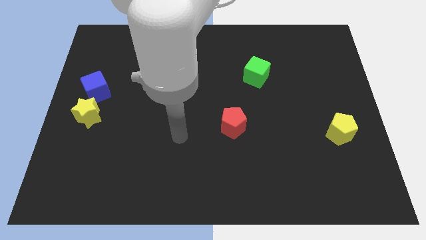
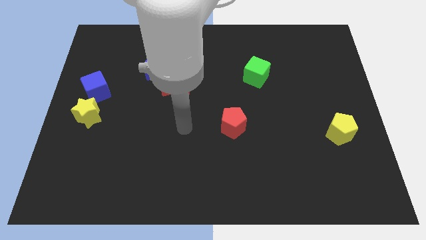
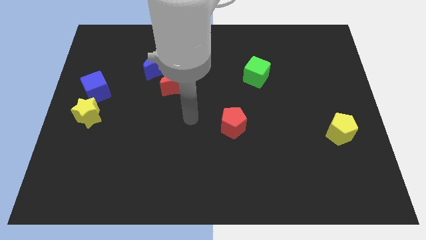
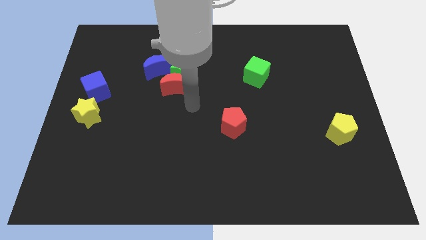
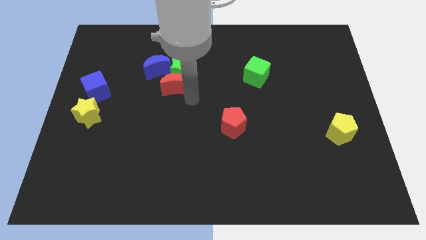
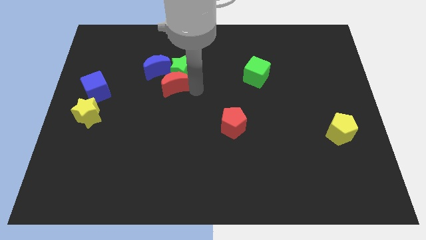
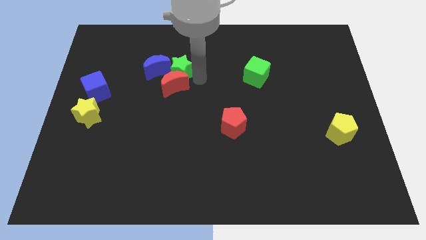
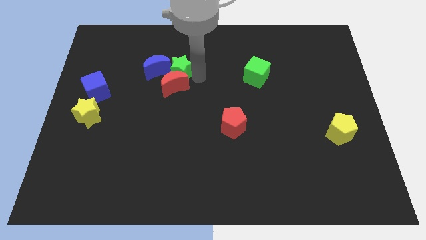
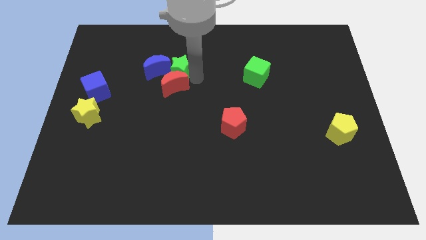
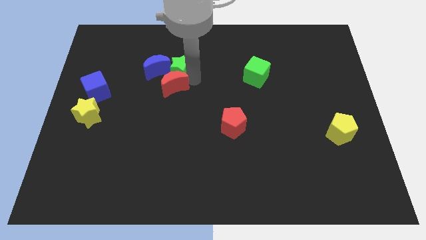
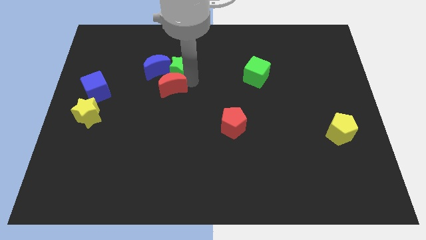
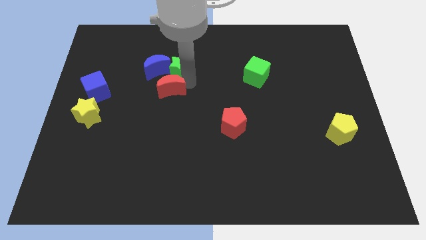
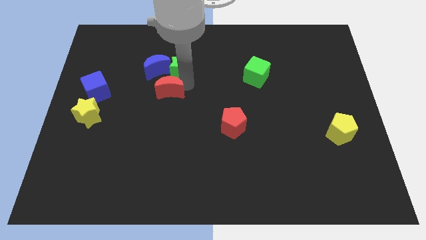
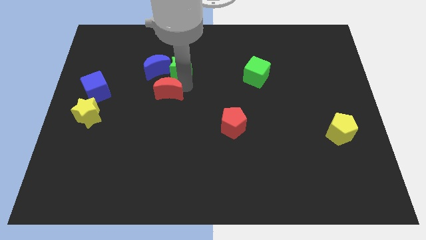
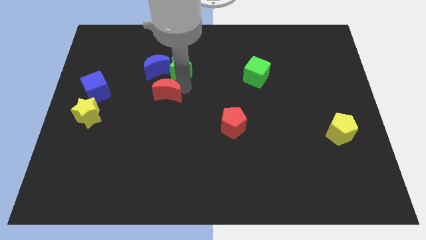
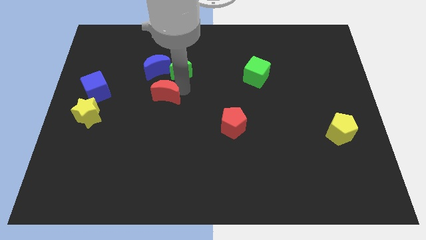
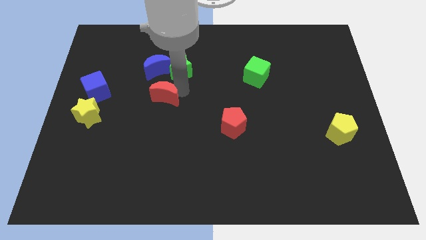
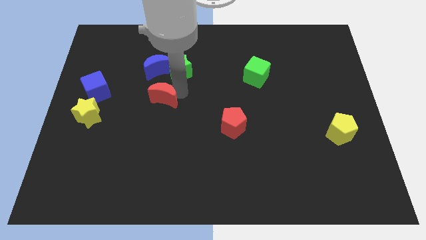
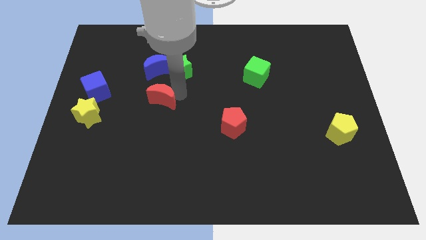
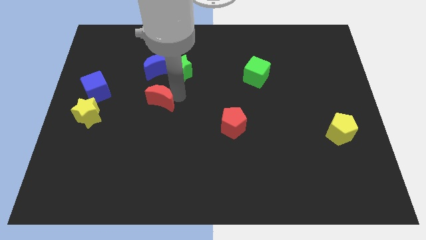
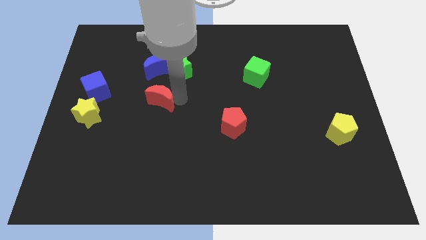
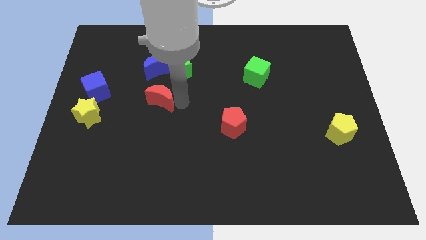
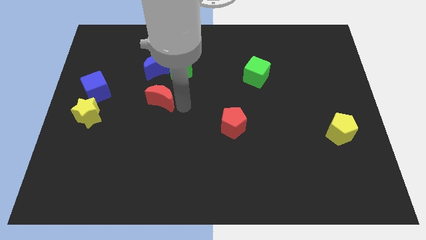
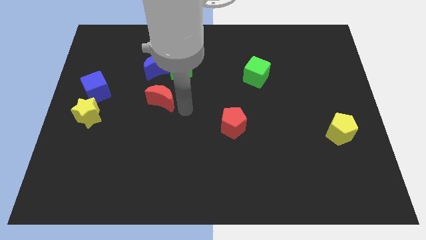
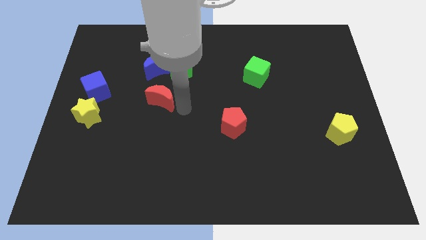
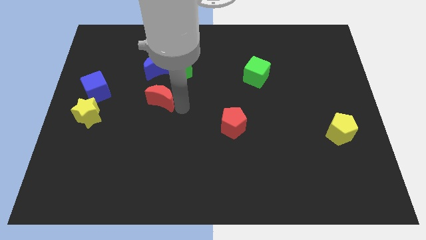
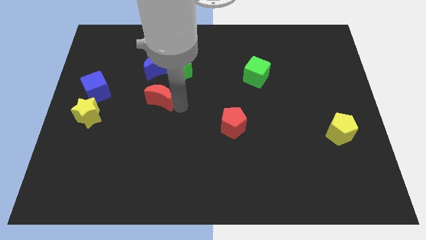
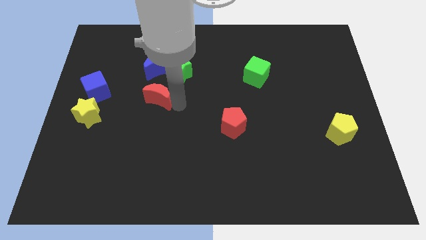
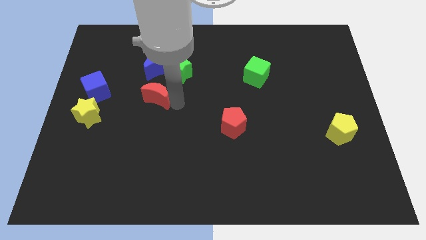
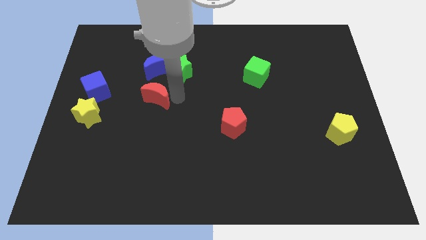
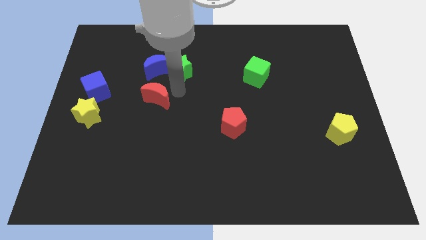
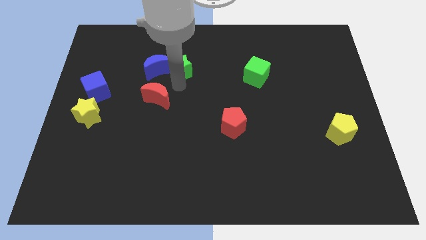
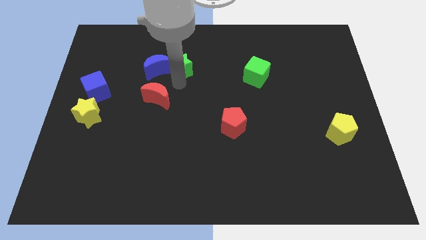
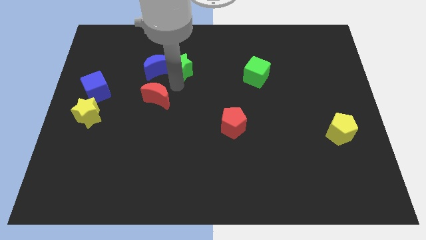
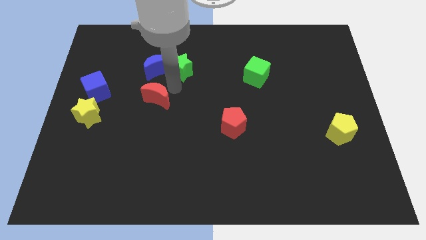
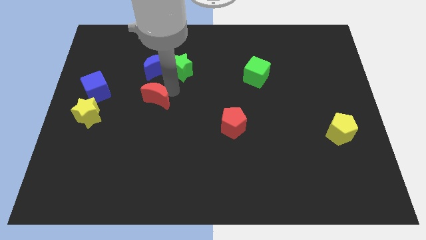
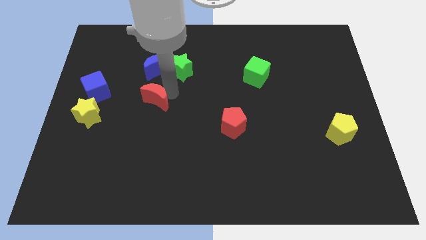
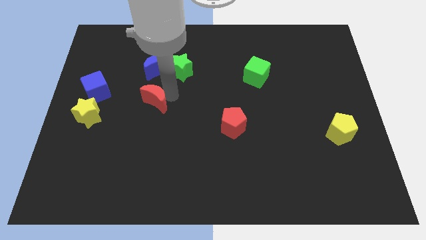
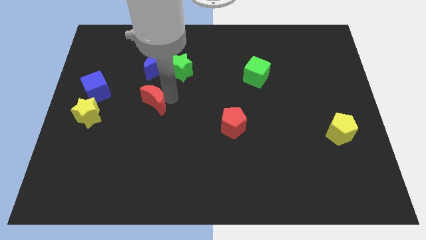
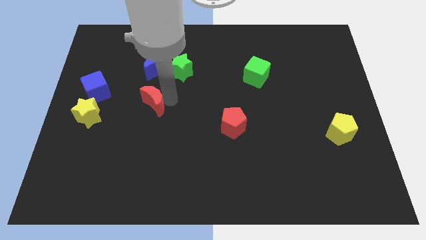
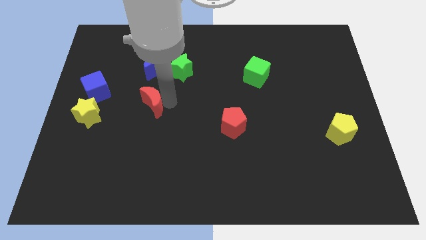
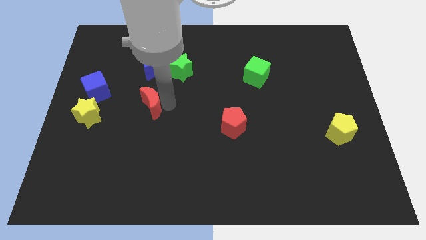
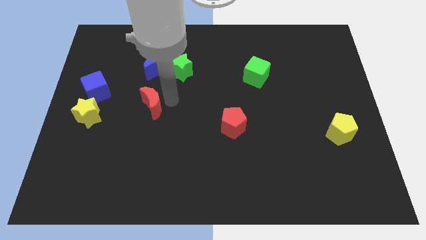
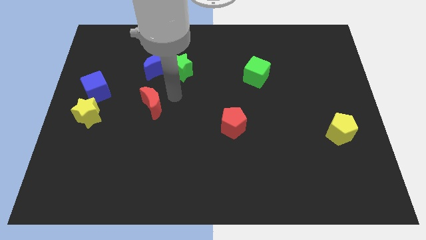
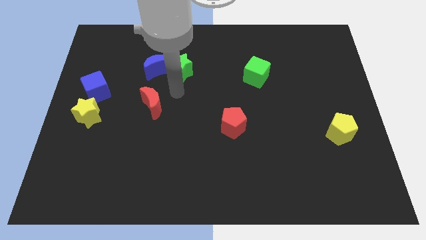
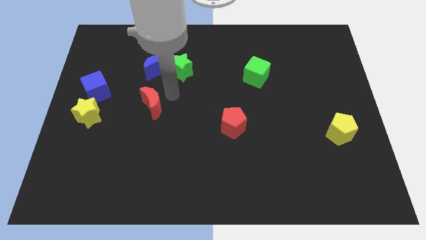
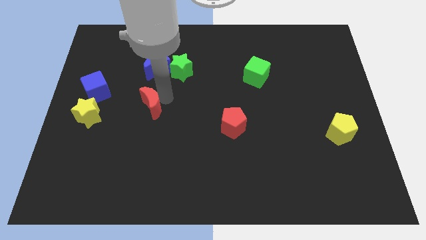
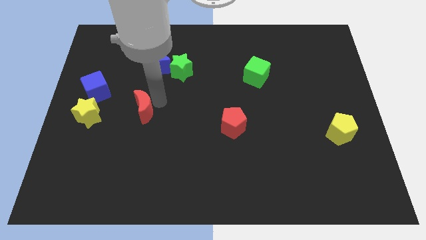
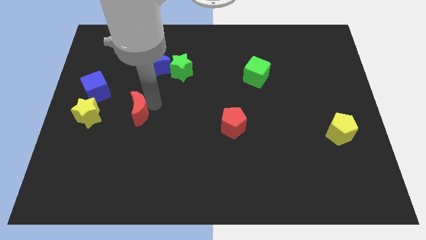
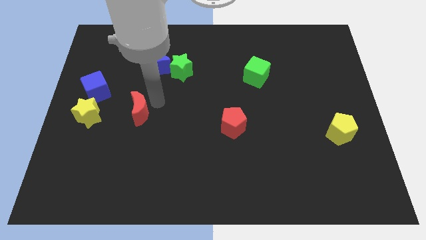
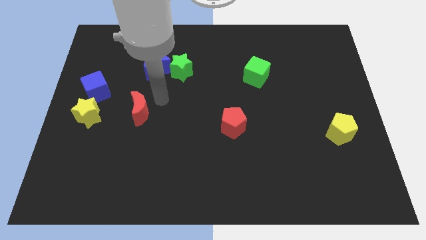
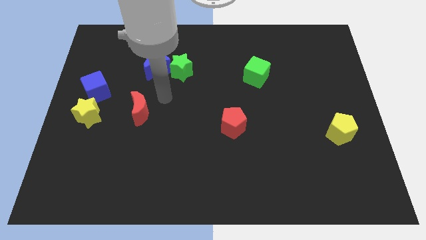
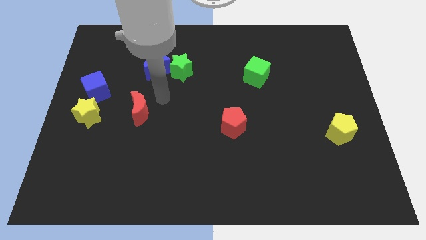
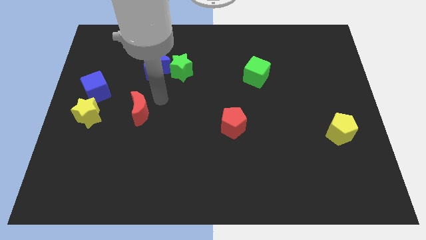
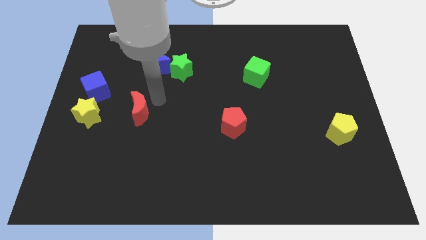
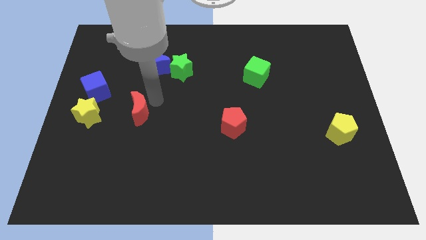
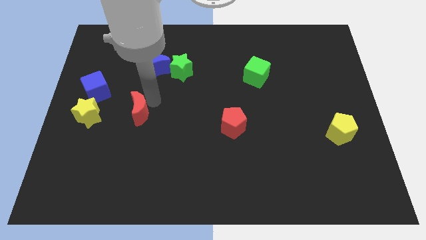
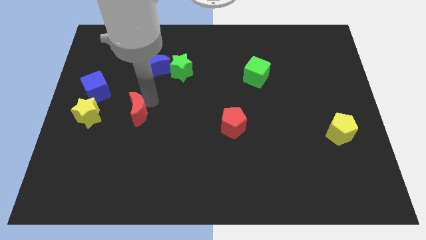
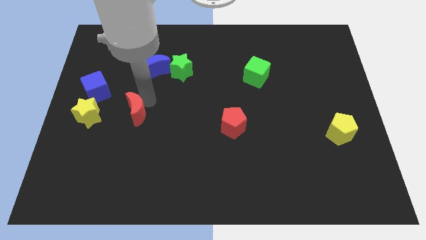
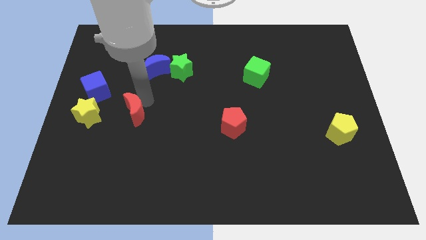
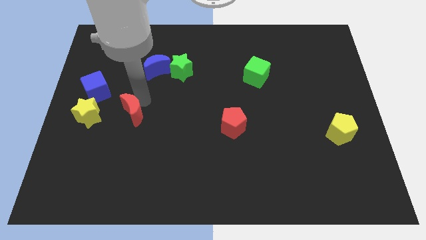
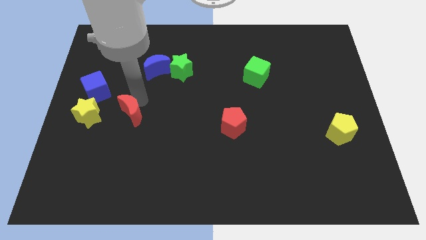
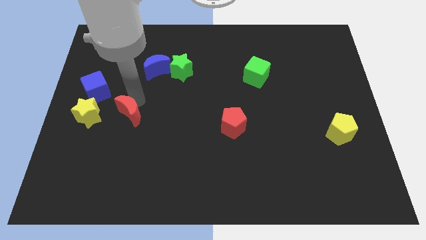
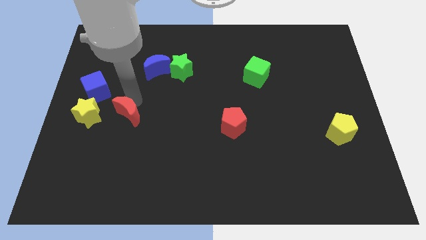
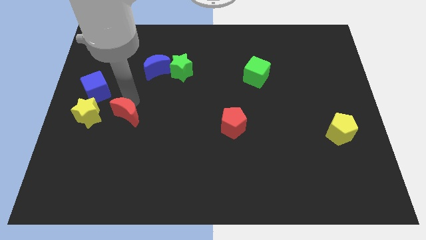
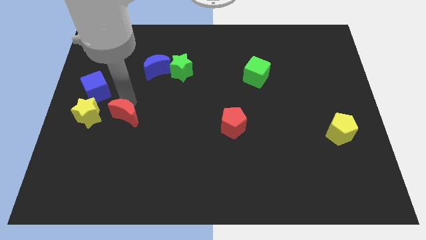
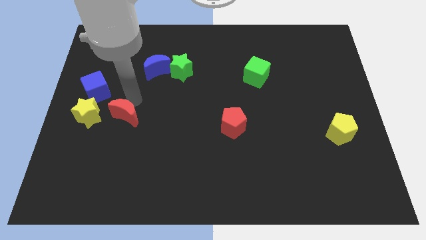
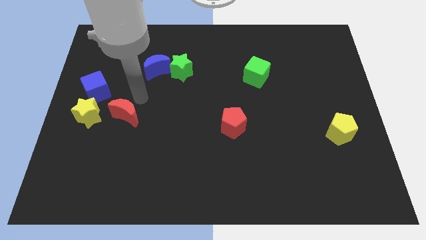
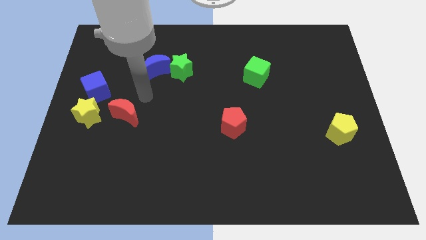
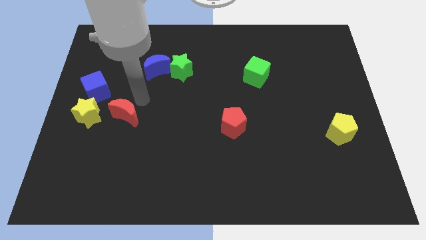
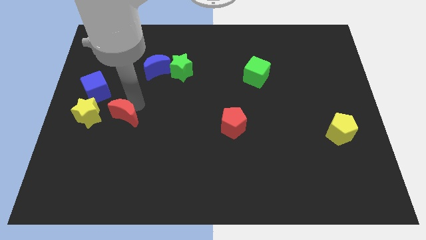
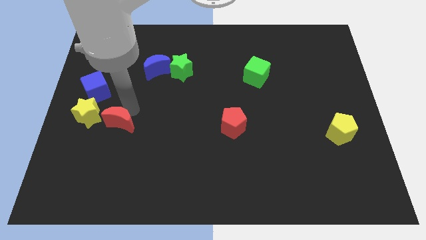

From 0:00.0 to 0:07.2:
move the red moon to the bottom right of the yellow star

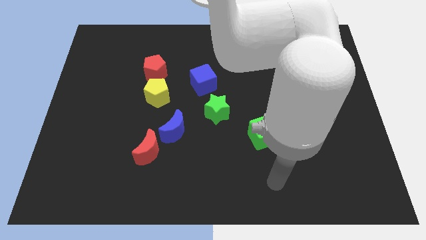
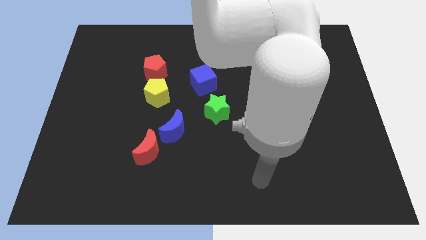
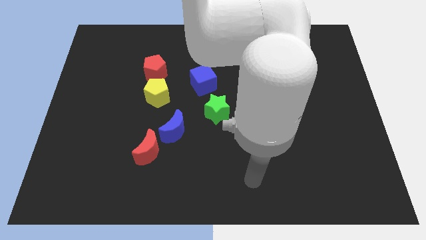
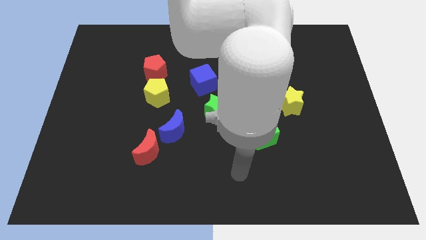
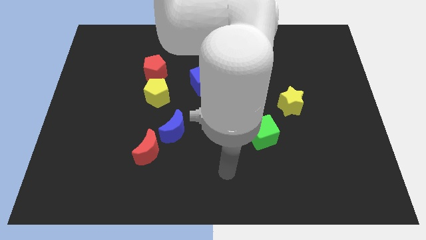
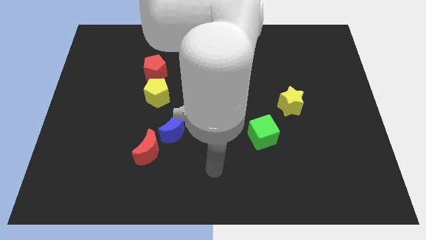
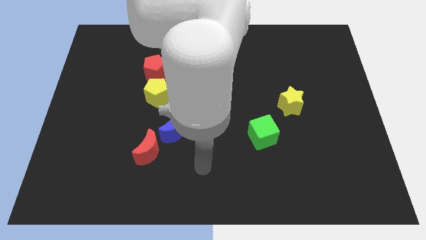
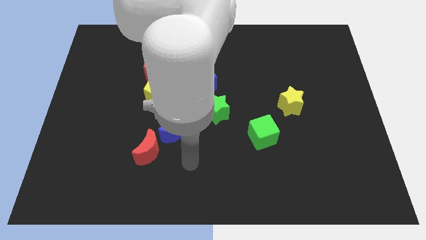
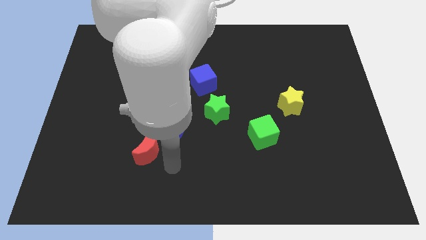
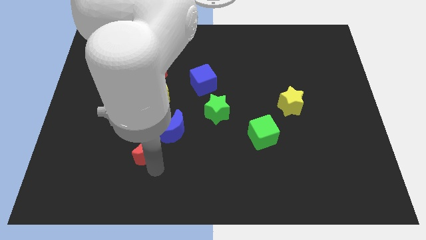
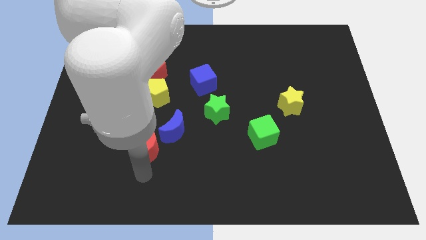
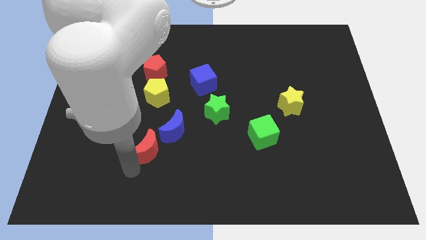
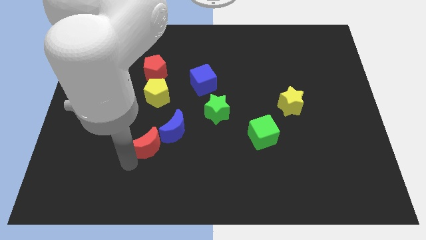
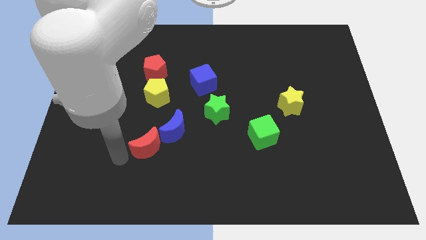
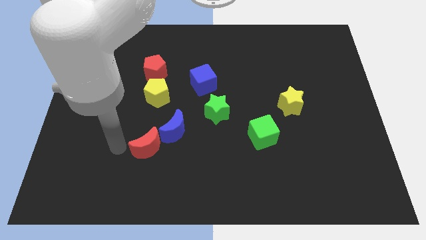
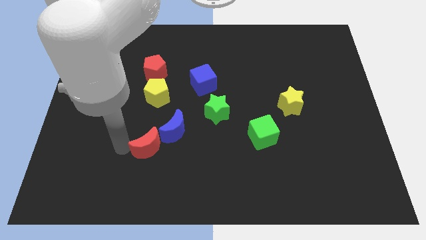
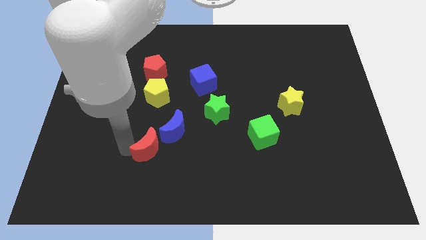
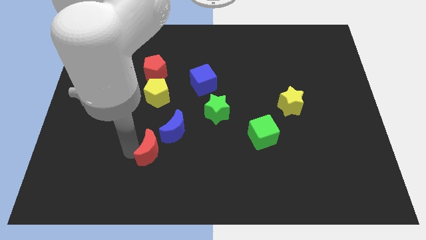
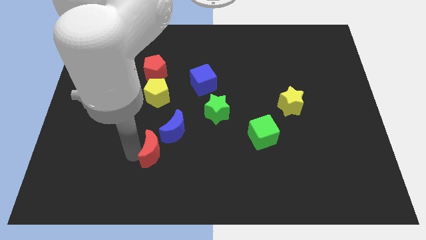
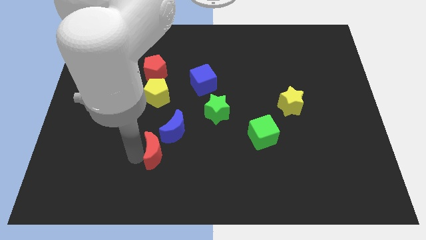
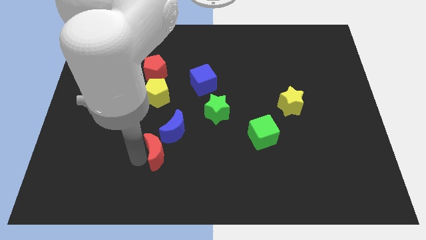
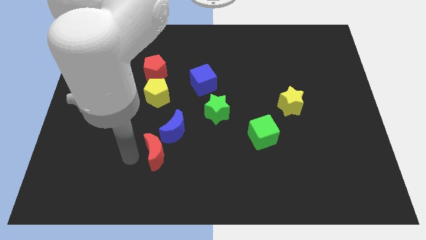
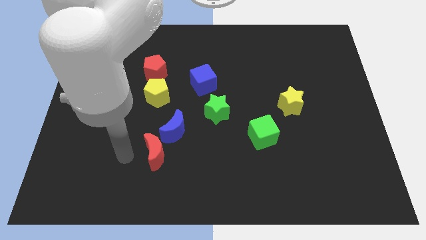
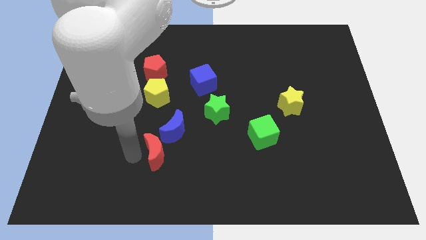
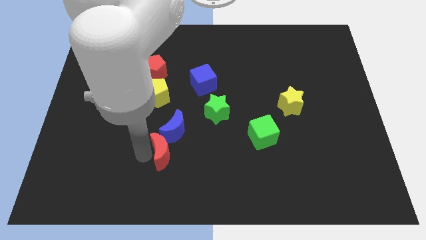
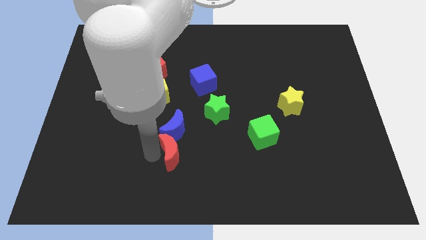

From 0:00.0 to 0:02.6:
slide the red moon diagonally down and to the right of the blue moon
